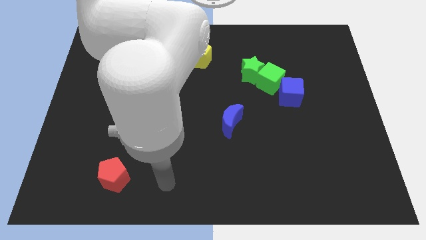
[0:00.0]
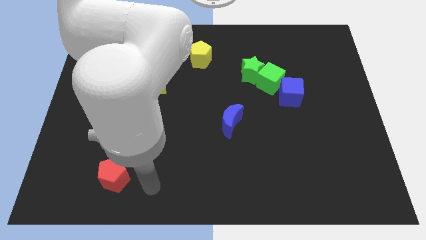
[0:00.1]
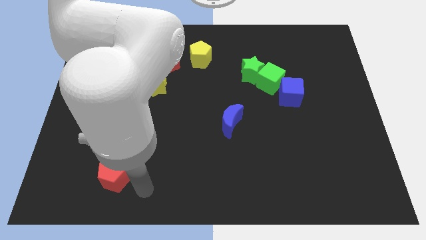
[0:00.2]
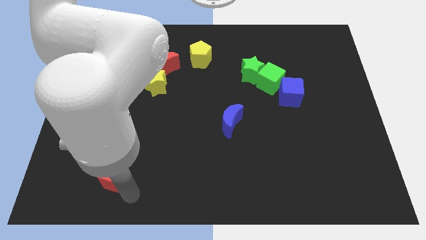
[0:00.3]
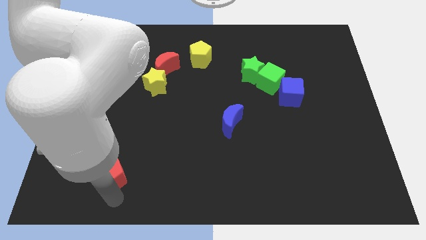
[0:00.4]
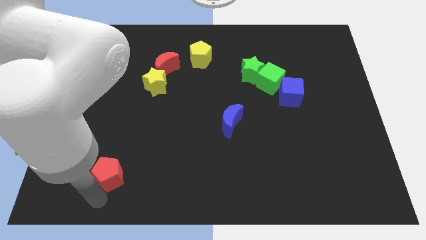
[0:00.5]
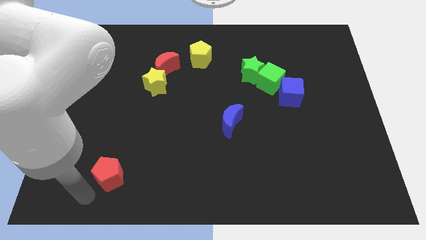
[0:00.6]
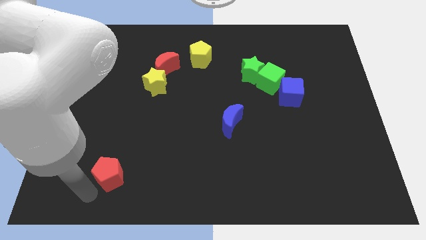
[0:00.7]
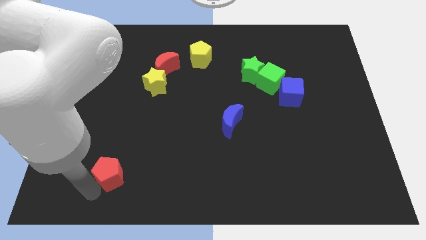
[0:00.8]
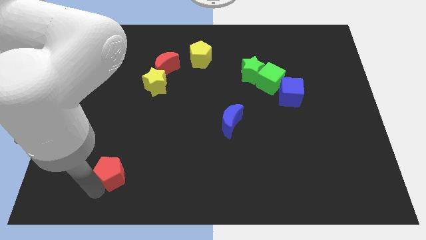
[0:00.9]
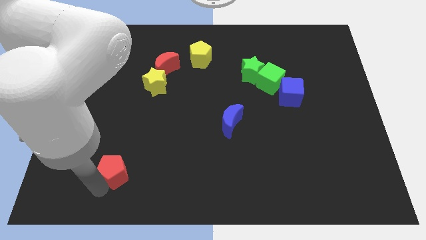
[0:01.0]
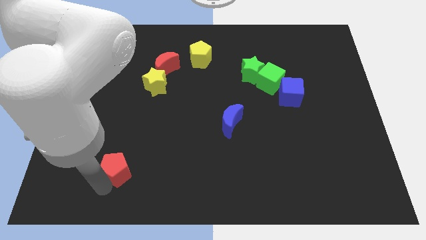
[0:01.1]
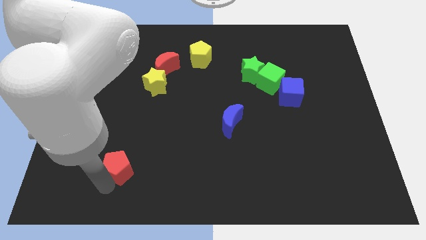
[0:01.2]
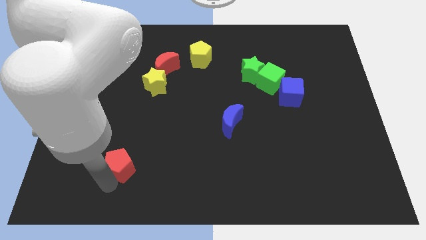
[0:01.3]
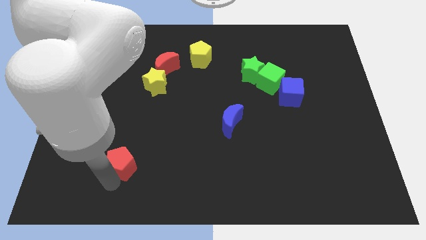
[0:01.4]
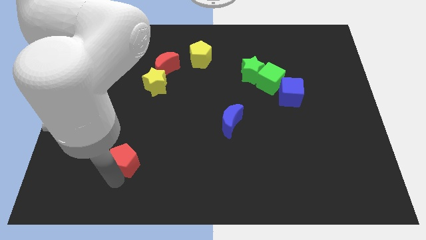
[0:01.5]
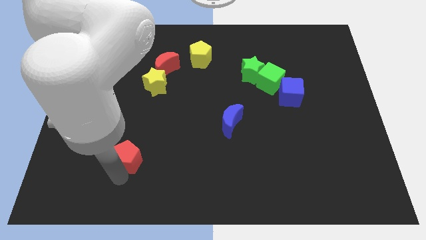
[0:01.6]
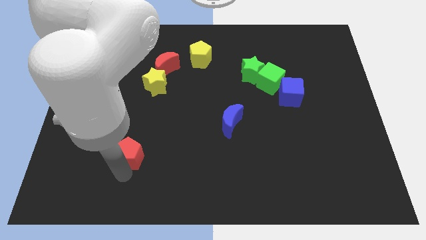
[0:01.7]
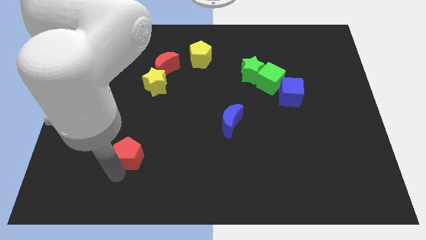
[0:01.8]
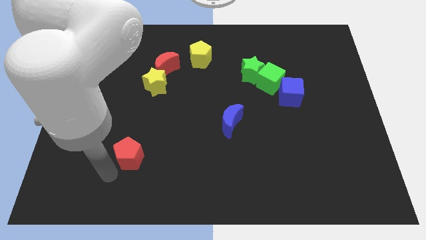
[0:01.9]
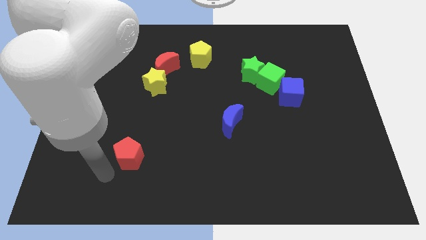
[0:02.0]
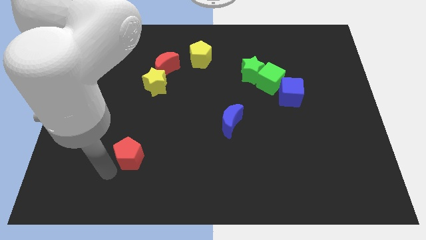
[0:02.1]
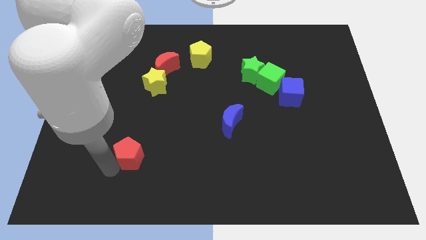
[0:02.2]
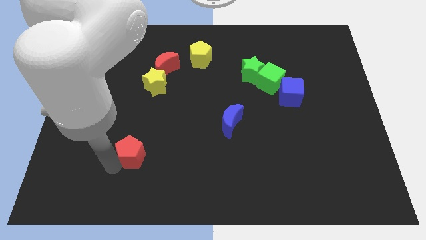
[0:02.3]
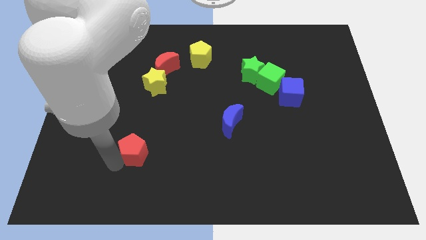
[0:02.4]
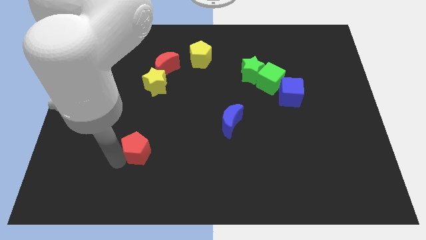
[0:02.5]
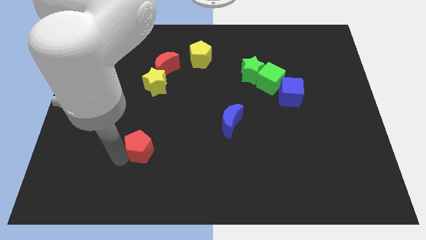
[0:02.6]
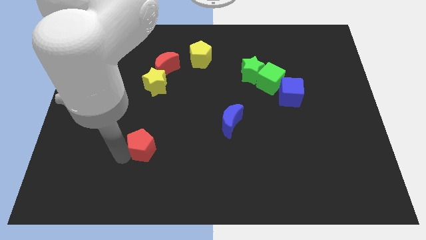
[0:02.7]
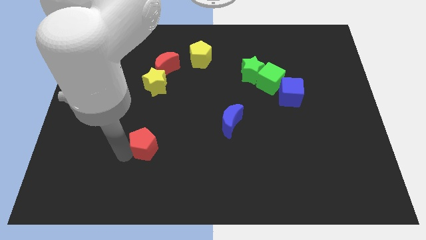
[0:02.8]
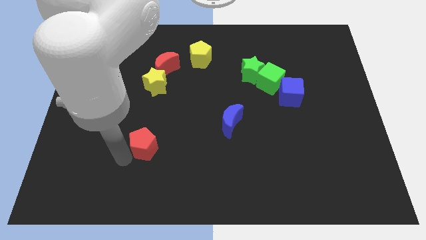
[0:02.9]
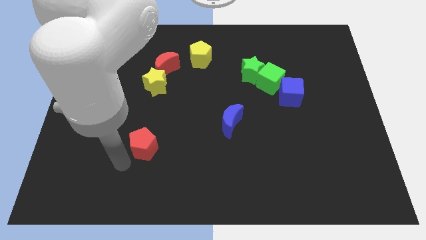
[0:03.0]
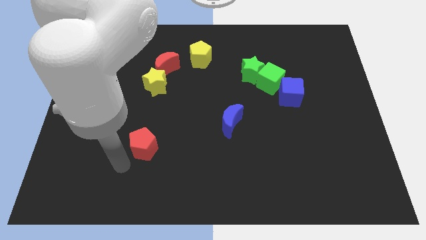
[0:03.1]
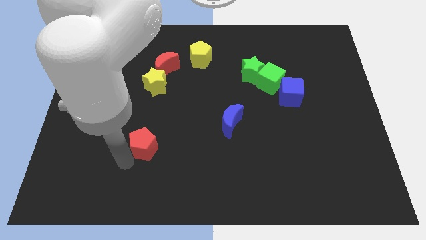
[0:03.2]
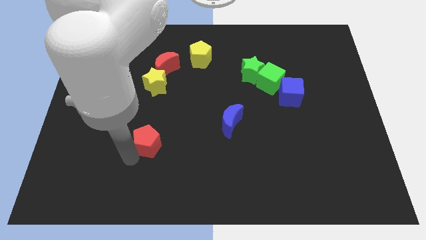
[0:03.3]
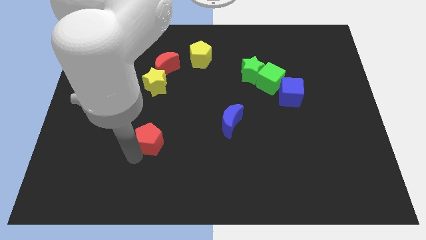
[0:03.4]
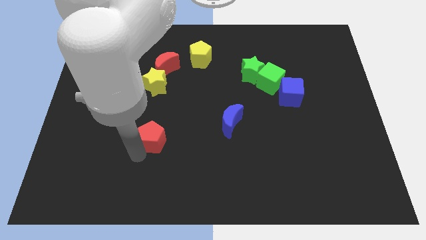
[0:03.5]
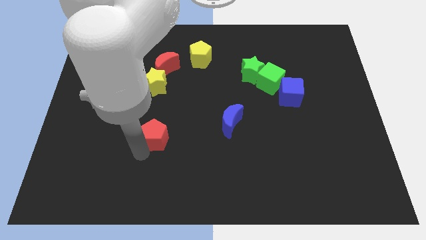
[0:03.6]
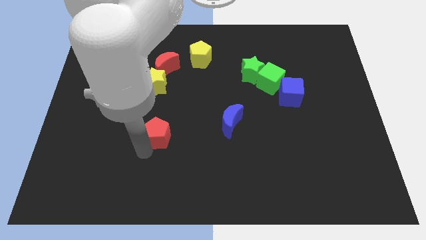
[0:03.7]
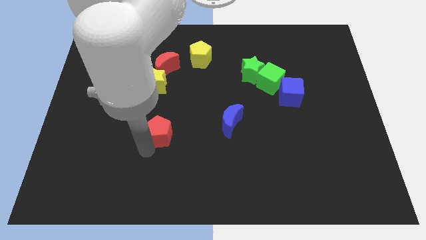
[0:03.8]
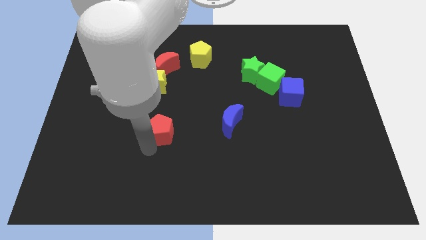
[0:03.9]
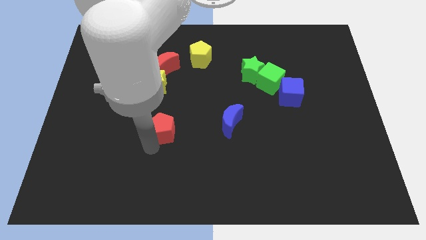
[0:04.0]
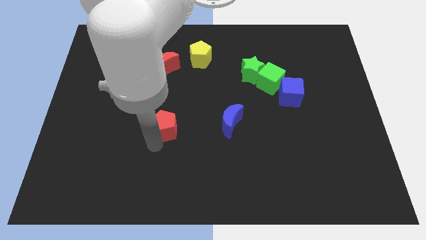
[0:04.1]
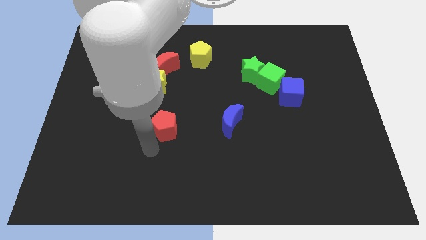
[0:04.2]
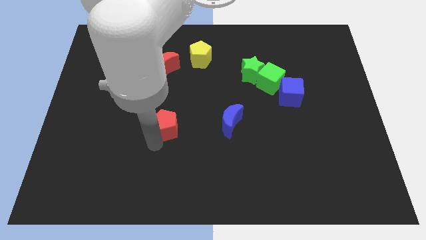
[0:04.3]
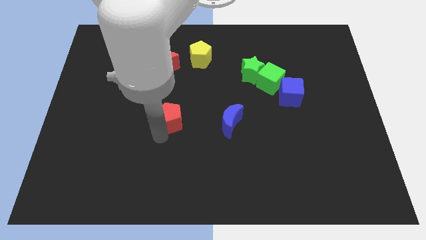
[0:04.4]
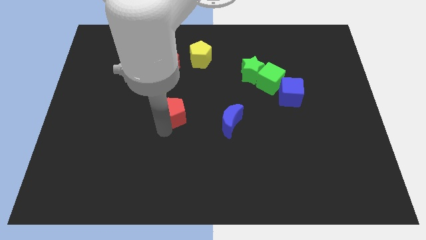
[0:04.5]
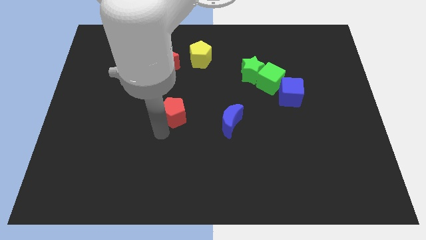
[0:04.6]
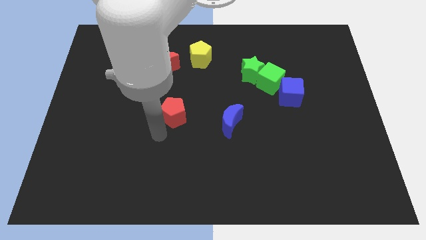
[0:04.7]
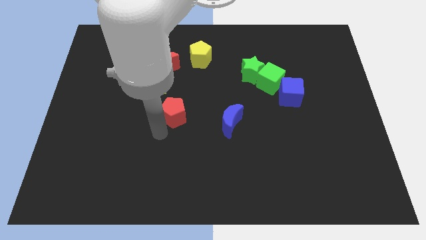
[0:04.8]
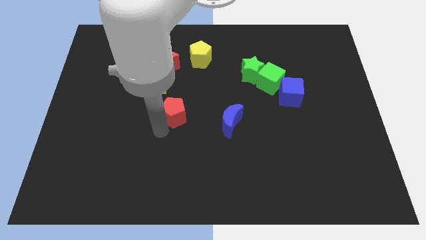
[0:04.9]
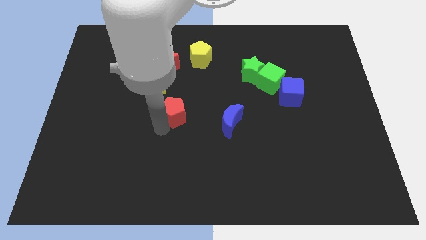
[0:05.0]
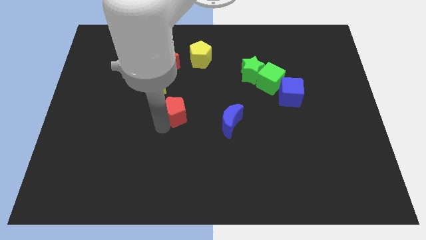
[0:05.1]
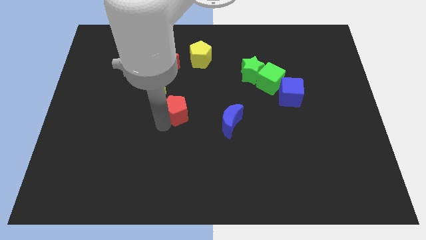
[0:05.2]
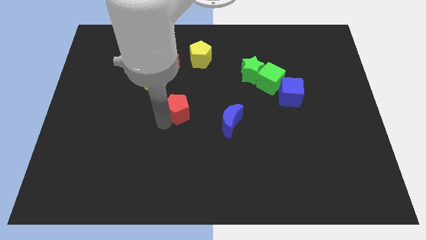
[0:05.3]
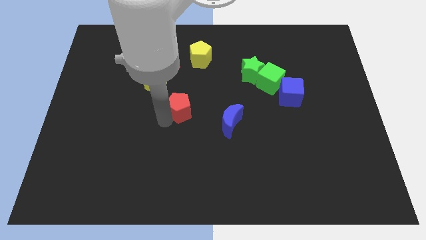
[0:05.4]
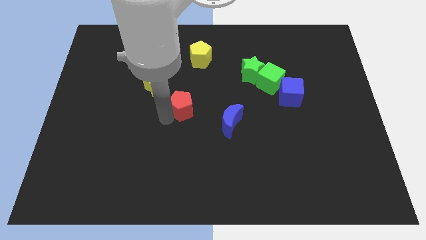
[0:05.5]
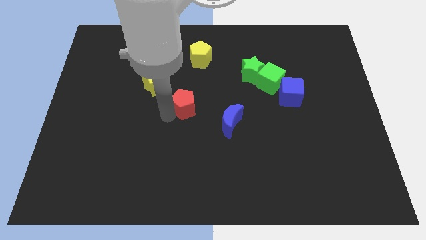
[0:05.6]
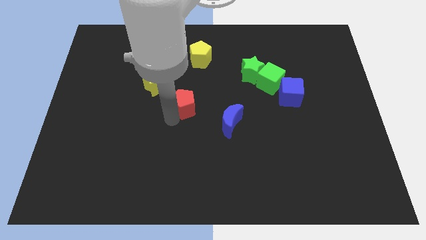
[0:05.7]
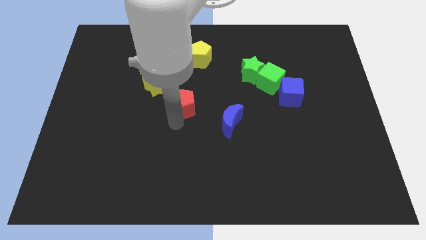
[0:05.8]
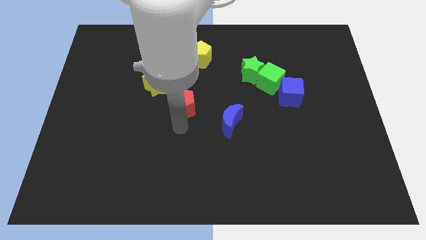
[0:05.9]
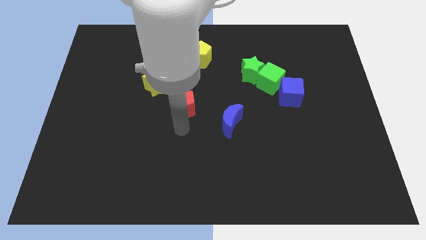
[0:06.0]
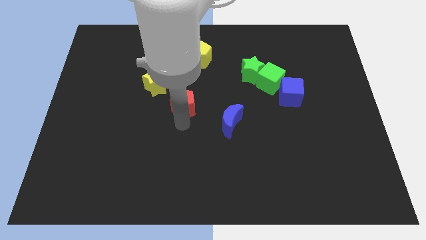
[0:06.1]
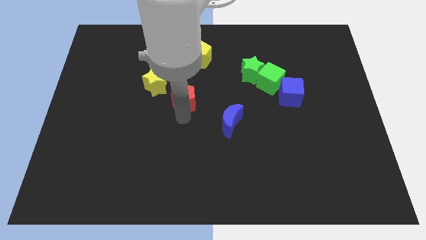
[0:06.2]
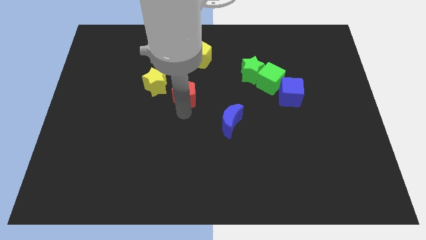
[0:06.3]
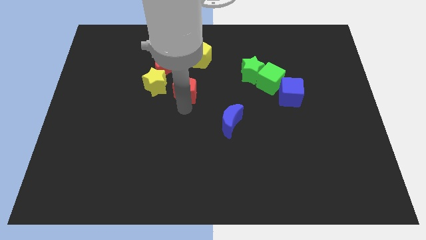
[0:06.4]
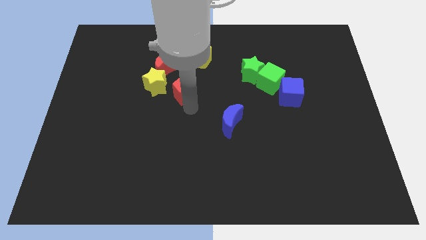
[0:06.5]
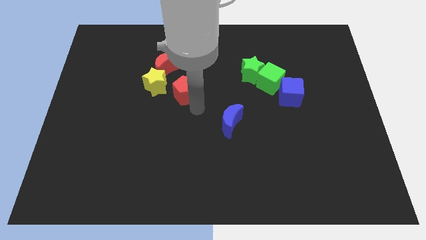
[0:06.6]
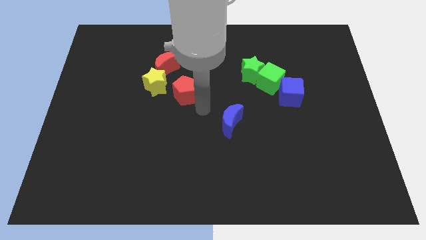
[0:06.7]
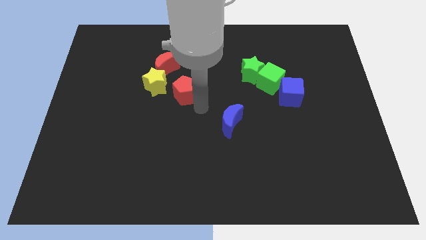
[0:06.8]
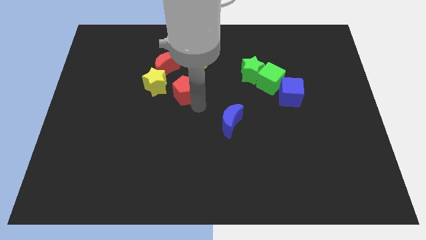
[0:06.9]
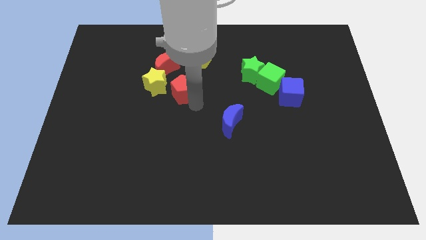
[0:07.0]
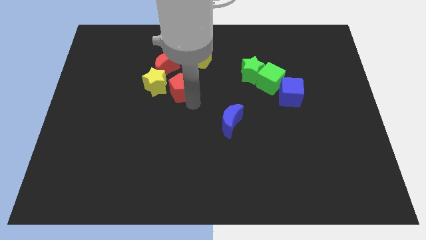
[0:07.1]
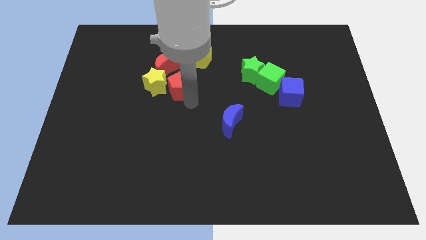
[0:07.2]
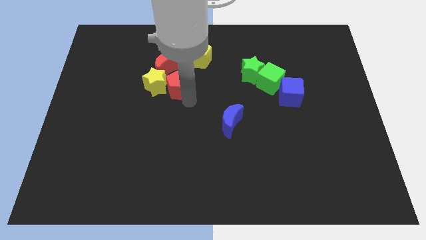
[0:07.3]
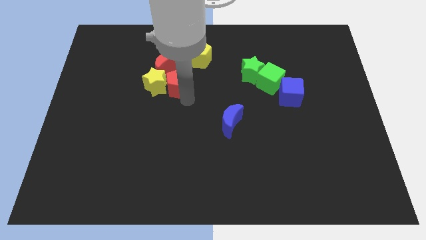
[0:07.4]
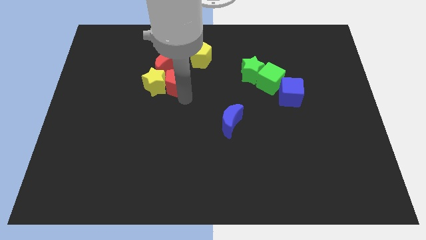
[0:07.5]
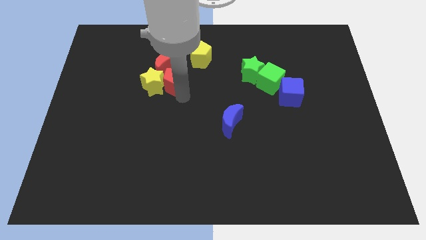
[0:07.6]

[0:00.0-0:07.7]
slide the red pentagon towards the red moon

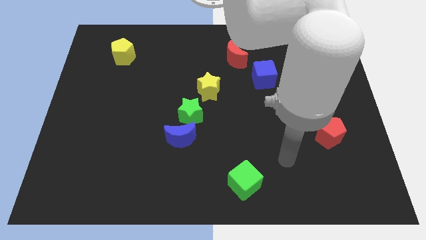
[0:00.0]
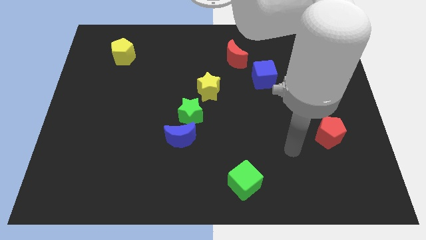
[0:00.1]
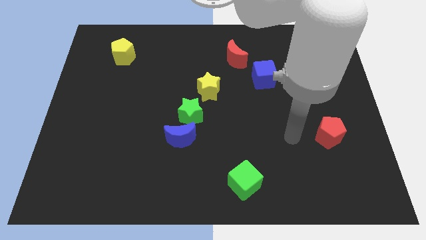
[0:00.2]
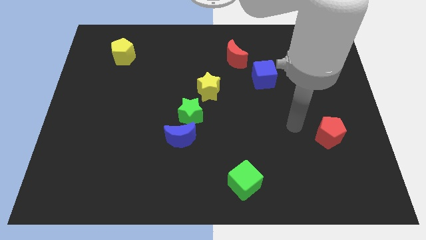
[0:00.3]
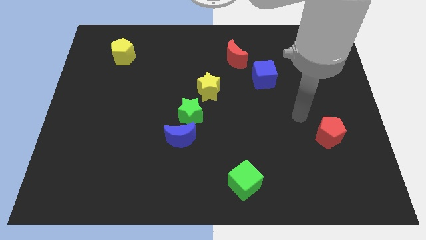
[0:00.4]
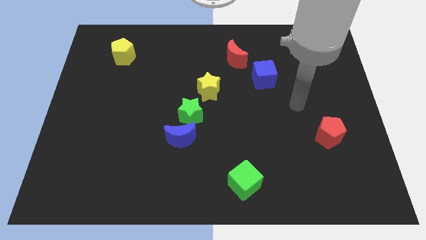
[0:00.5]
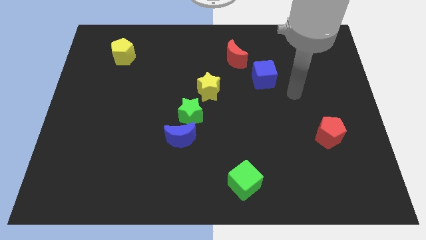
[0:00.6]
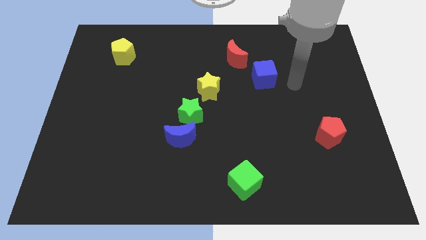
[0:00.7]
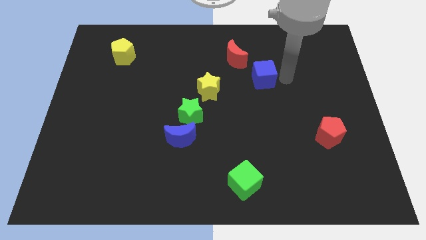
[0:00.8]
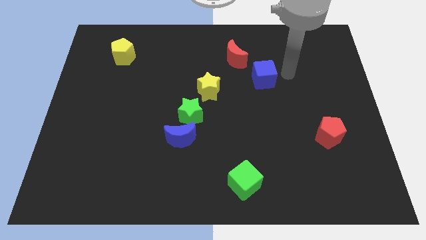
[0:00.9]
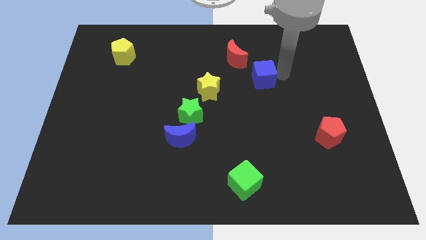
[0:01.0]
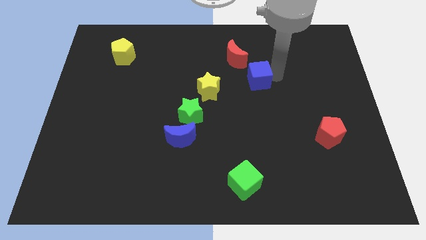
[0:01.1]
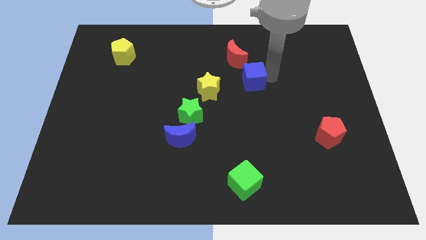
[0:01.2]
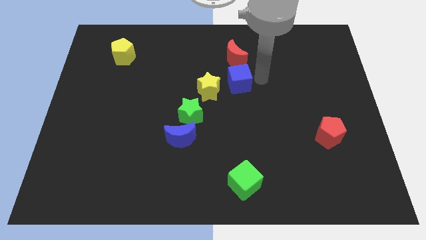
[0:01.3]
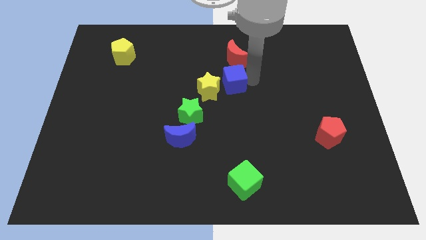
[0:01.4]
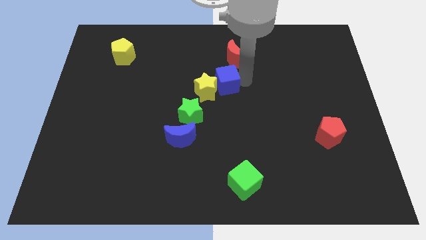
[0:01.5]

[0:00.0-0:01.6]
slide the blue cube next to the yellow star
